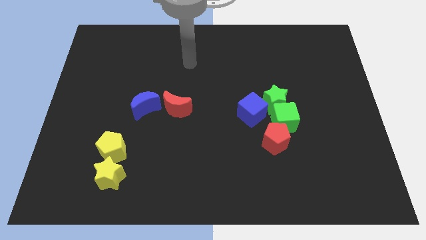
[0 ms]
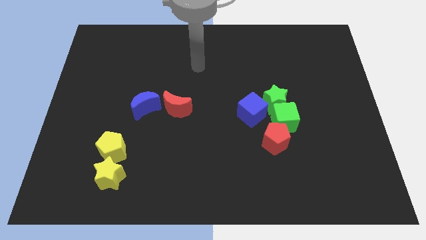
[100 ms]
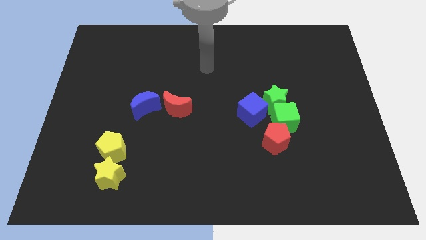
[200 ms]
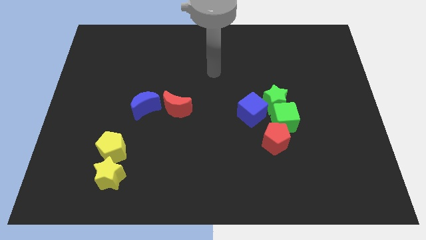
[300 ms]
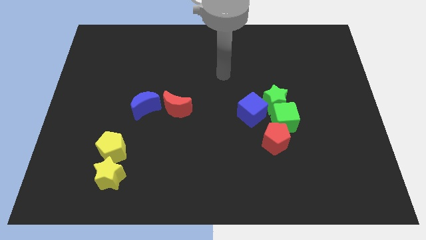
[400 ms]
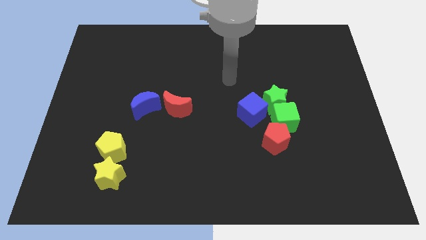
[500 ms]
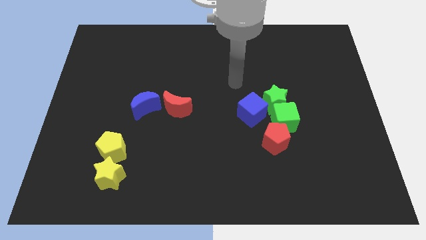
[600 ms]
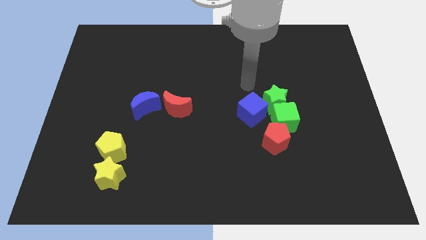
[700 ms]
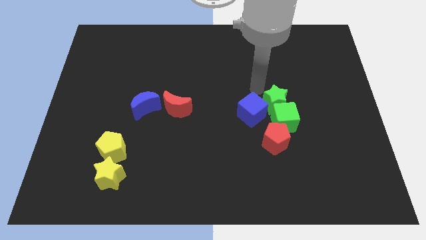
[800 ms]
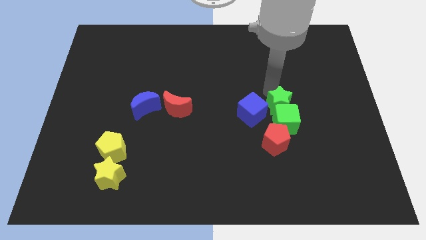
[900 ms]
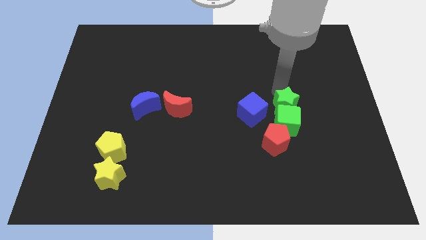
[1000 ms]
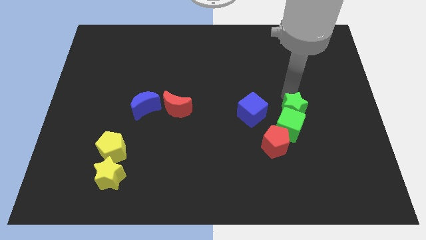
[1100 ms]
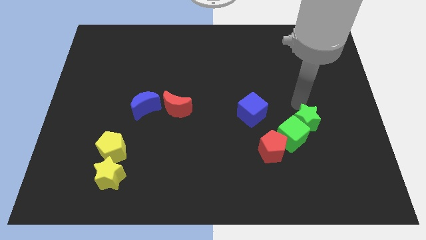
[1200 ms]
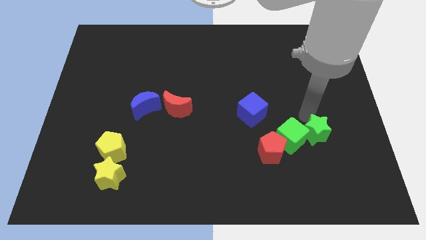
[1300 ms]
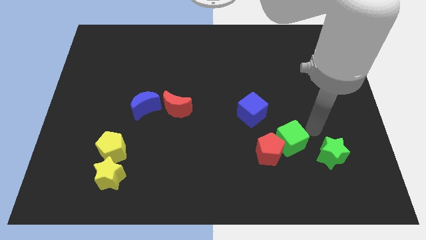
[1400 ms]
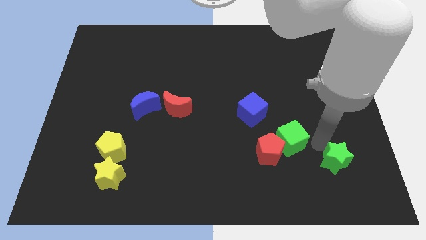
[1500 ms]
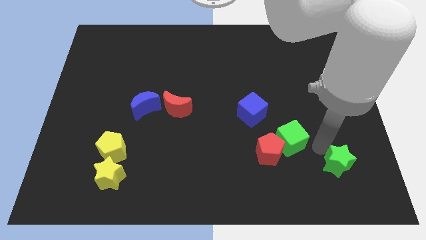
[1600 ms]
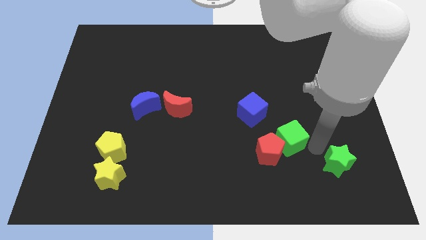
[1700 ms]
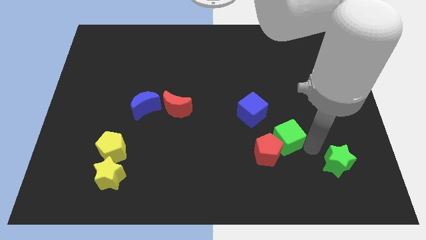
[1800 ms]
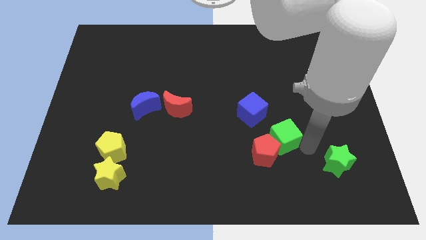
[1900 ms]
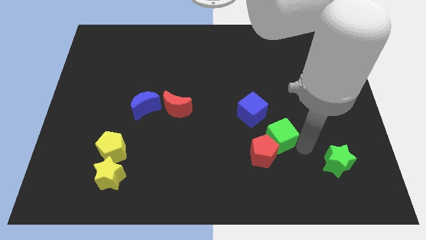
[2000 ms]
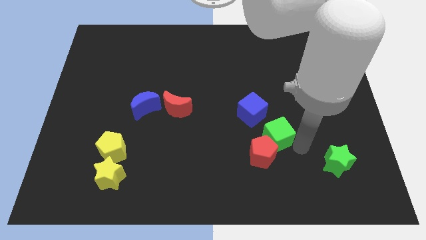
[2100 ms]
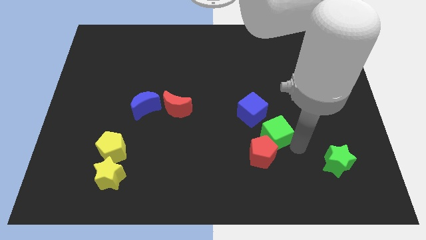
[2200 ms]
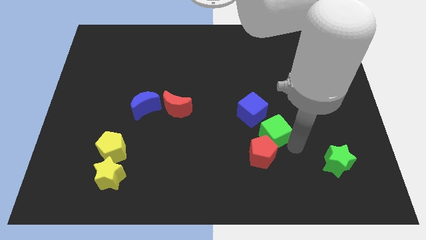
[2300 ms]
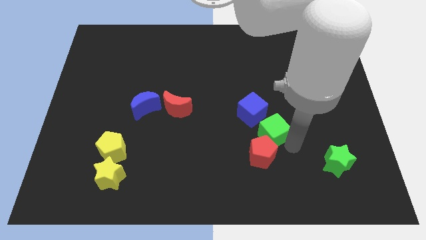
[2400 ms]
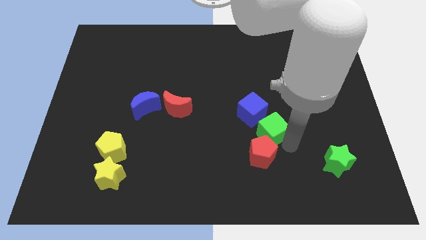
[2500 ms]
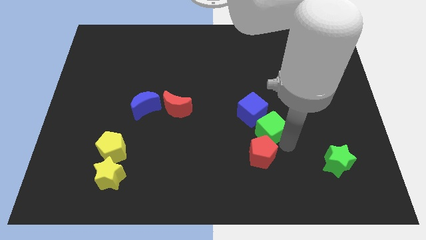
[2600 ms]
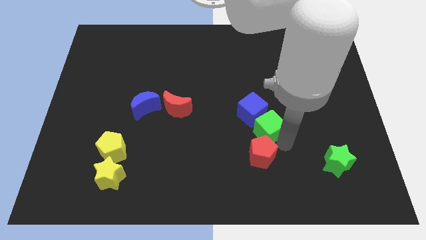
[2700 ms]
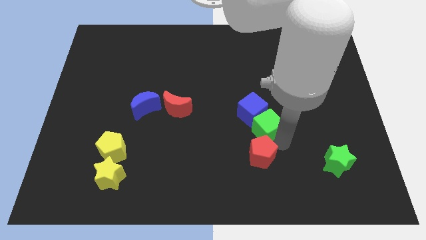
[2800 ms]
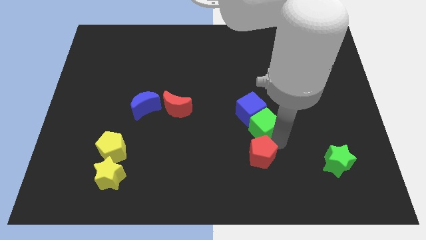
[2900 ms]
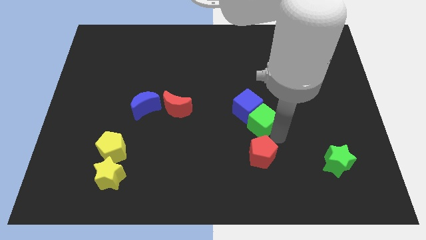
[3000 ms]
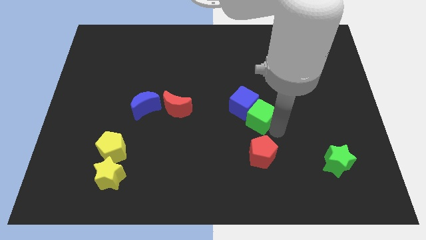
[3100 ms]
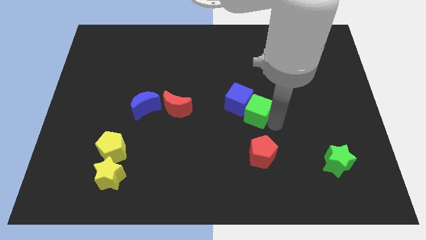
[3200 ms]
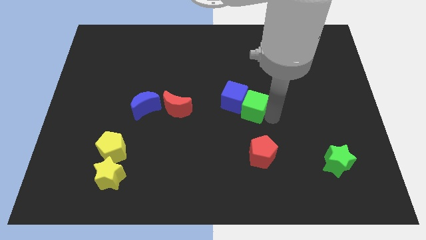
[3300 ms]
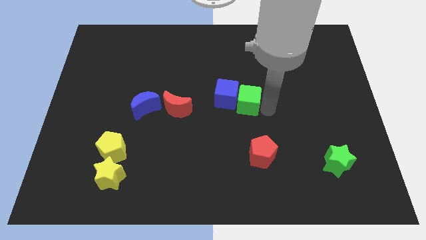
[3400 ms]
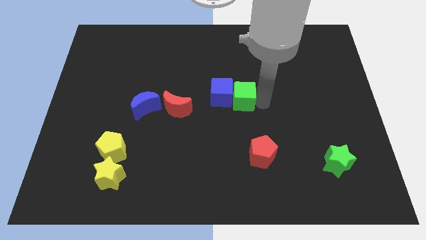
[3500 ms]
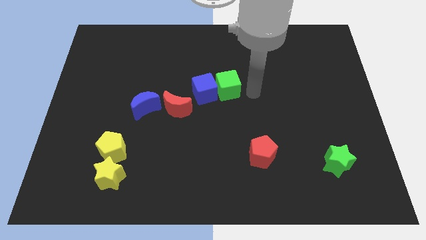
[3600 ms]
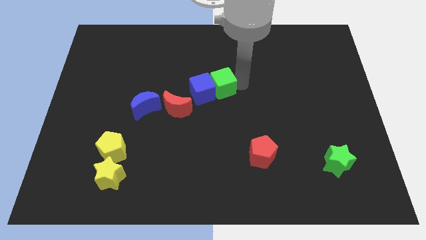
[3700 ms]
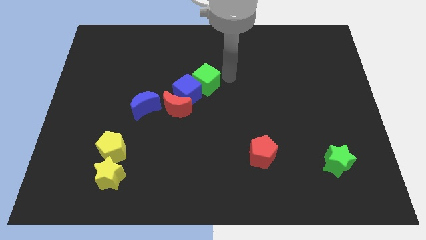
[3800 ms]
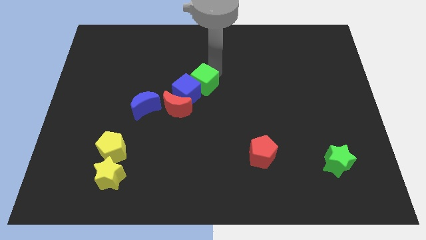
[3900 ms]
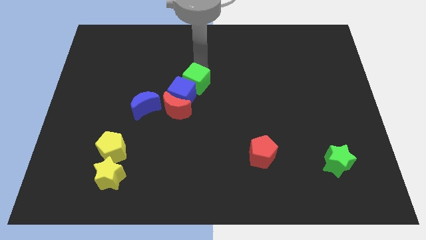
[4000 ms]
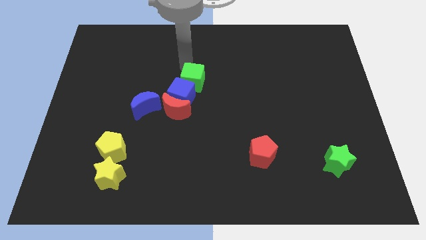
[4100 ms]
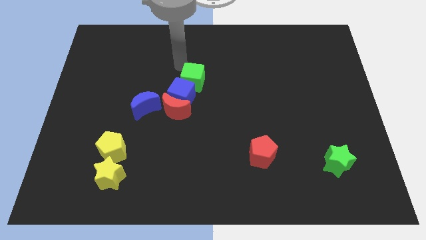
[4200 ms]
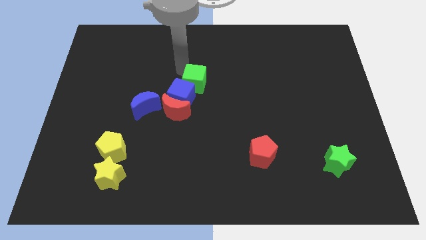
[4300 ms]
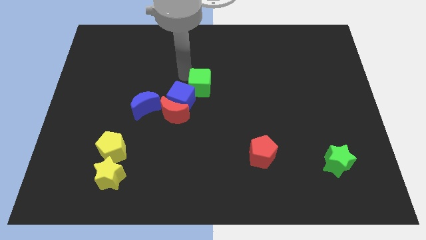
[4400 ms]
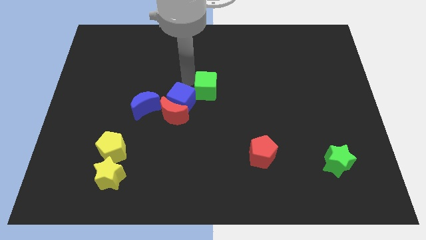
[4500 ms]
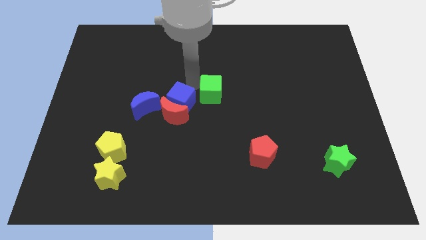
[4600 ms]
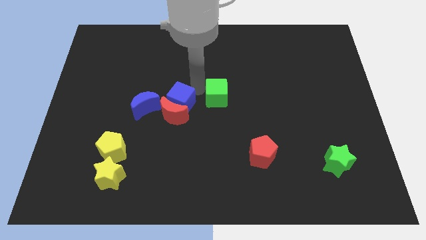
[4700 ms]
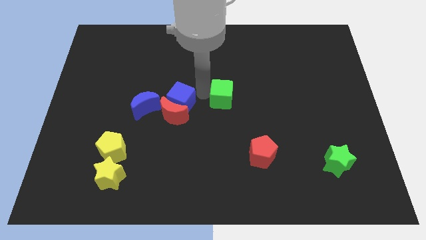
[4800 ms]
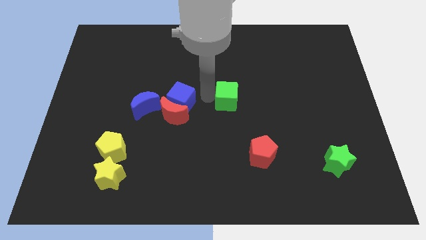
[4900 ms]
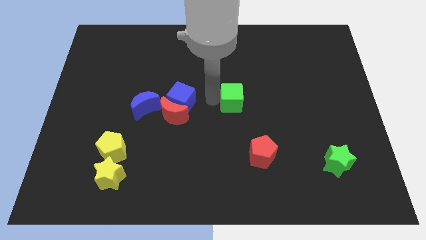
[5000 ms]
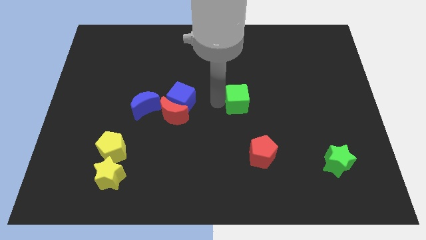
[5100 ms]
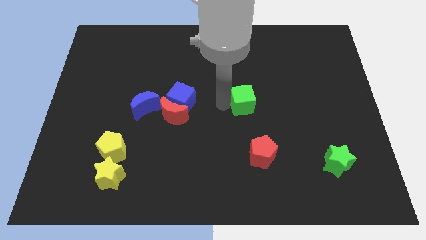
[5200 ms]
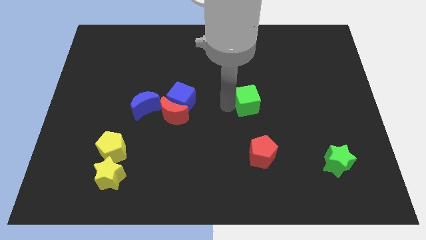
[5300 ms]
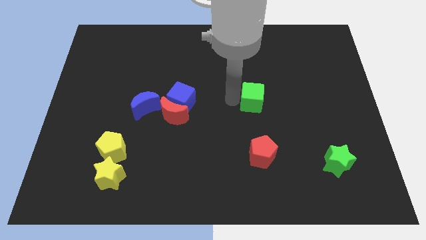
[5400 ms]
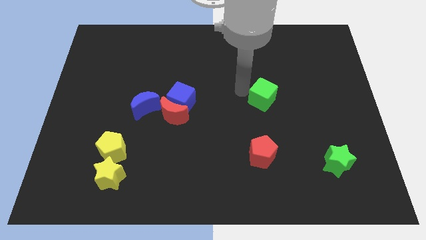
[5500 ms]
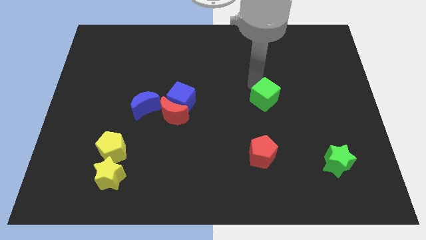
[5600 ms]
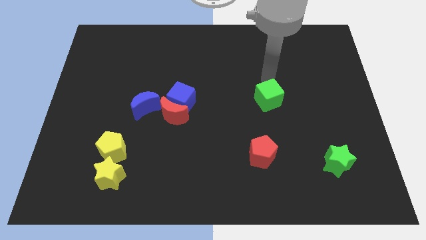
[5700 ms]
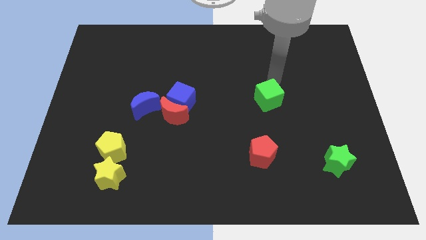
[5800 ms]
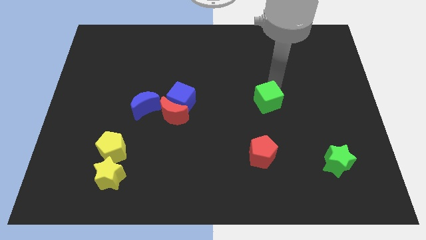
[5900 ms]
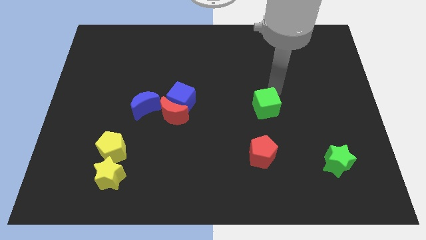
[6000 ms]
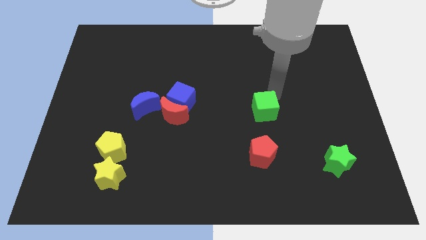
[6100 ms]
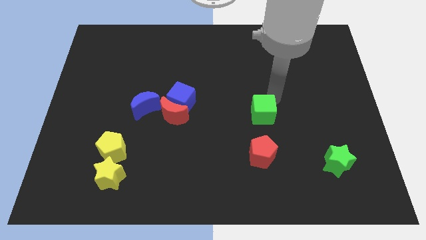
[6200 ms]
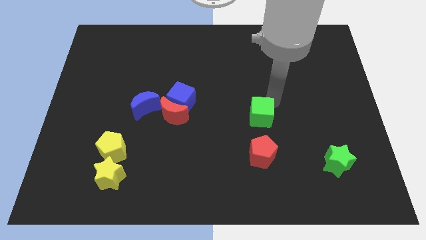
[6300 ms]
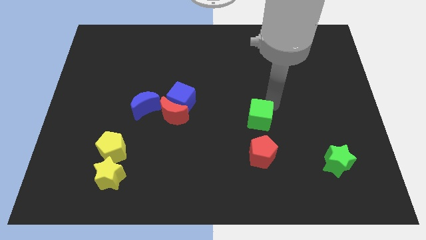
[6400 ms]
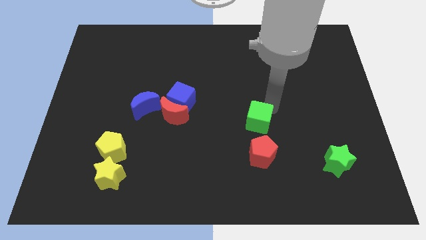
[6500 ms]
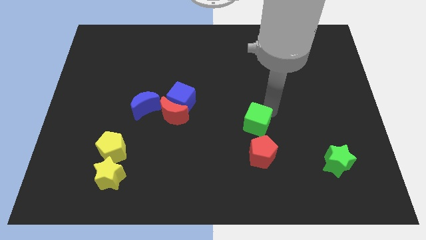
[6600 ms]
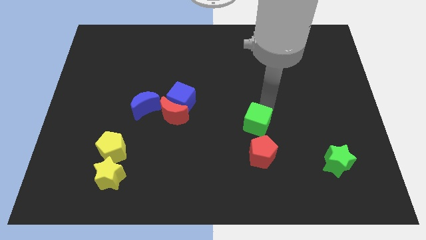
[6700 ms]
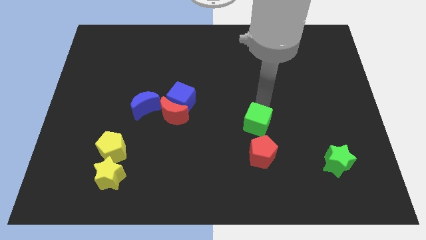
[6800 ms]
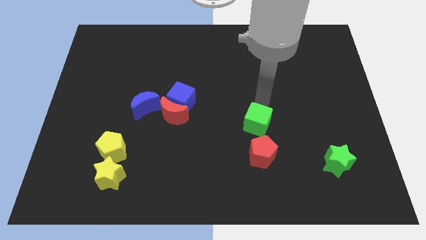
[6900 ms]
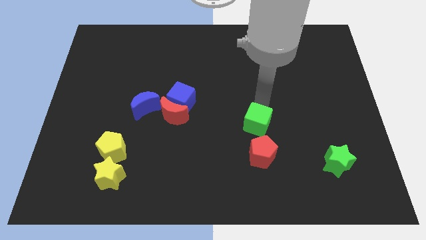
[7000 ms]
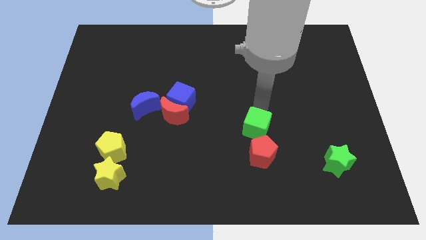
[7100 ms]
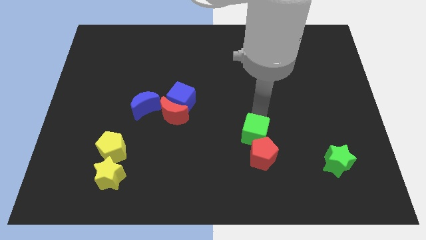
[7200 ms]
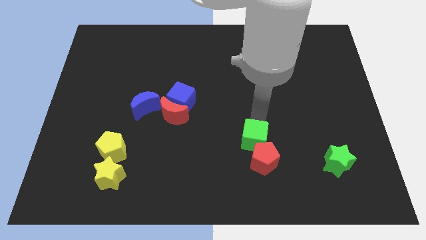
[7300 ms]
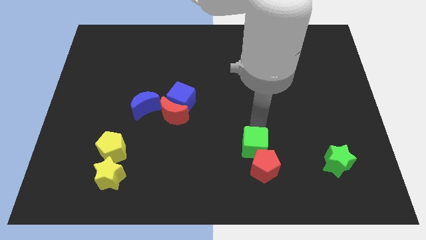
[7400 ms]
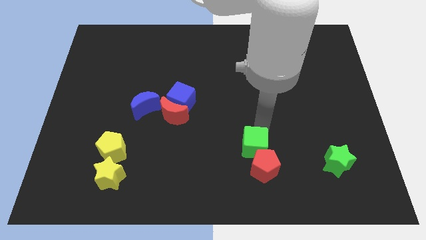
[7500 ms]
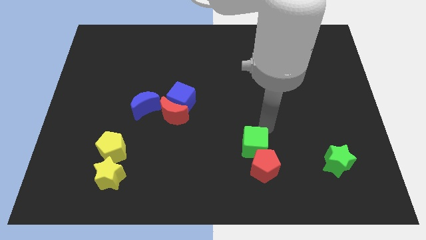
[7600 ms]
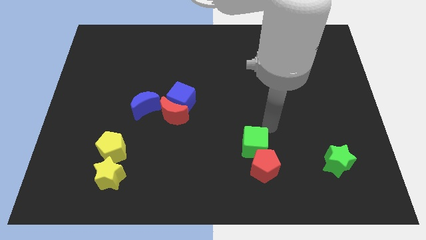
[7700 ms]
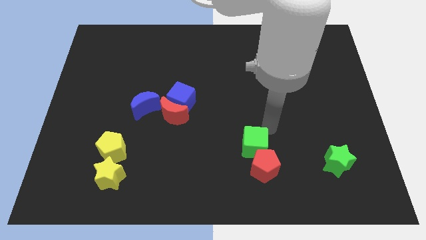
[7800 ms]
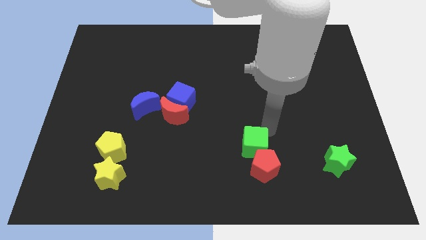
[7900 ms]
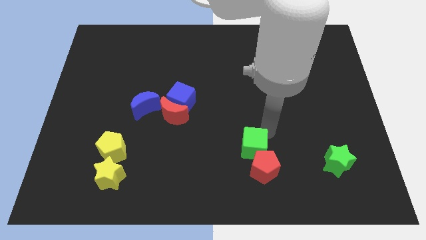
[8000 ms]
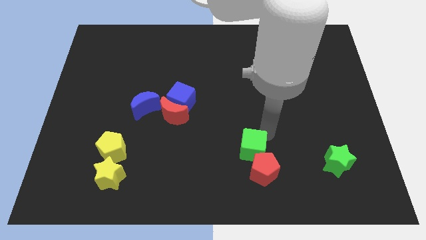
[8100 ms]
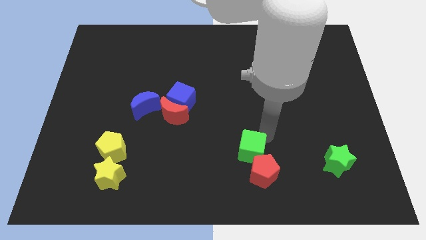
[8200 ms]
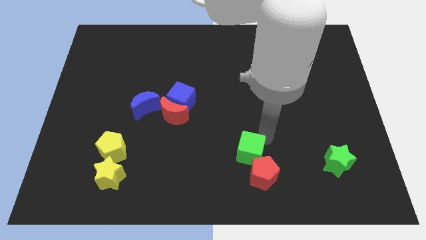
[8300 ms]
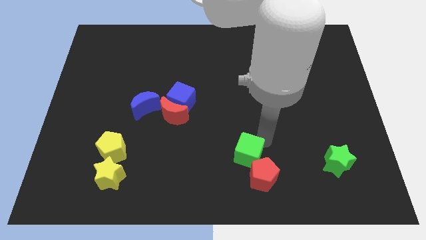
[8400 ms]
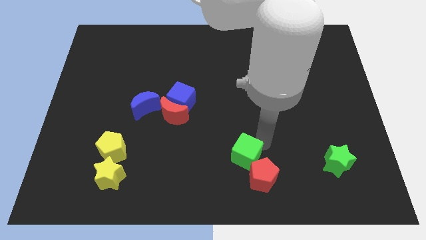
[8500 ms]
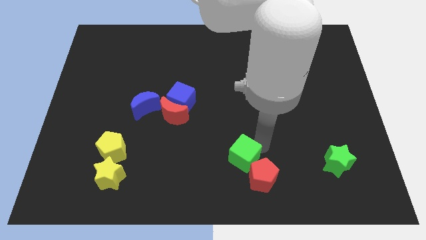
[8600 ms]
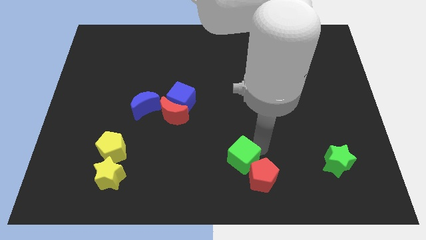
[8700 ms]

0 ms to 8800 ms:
move the green cube to the bottom
